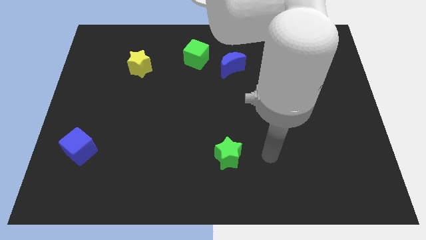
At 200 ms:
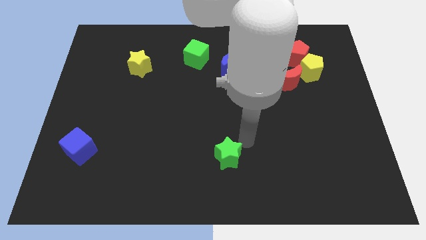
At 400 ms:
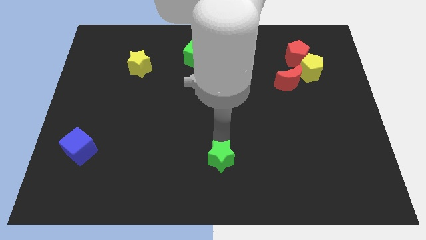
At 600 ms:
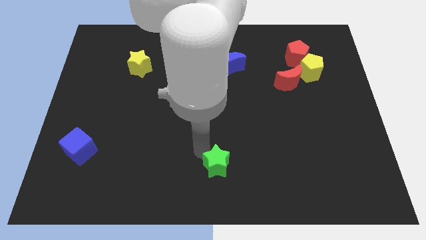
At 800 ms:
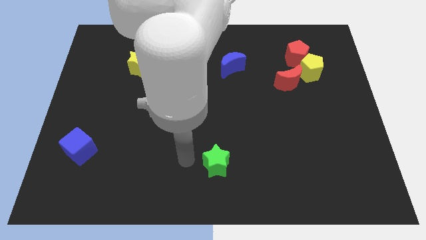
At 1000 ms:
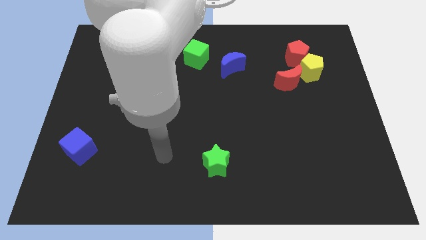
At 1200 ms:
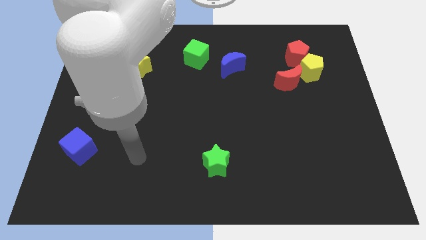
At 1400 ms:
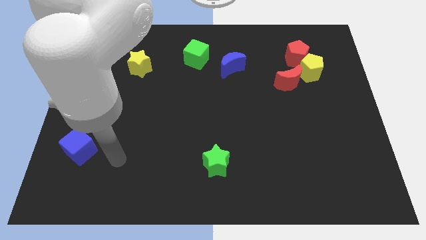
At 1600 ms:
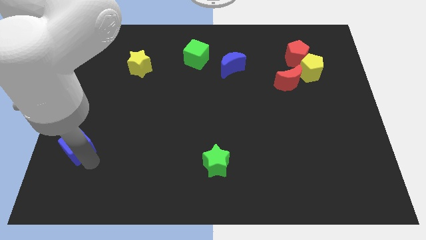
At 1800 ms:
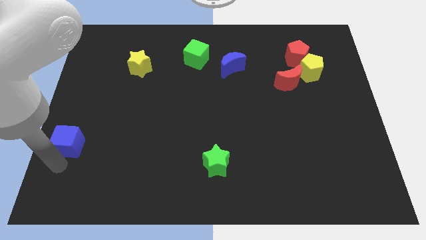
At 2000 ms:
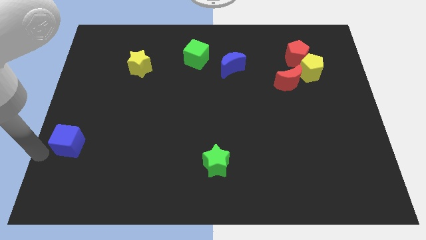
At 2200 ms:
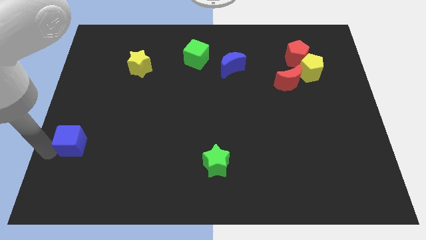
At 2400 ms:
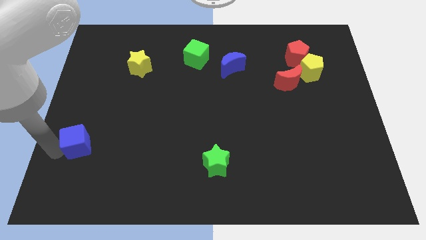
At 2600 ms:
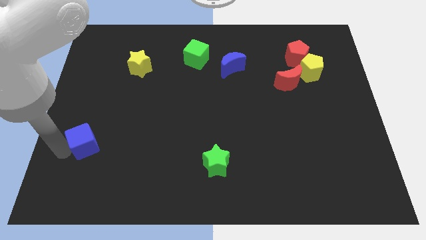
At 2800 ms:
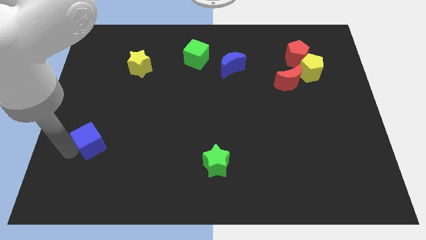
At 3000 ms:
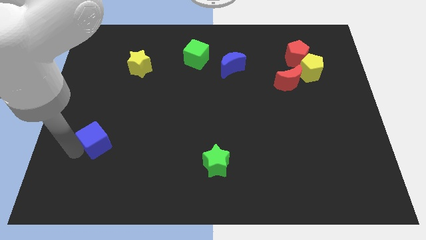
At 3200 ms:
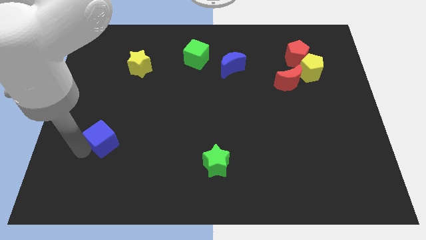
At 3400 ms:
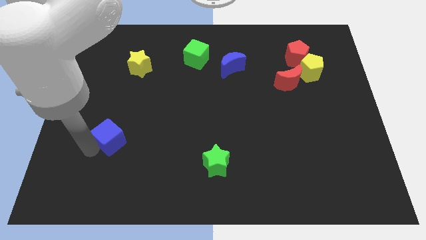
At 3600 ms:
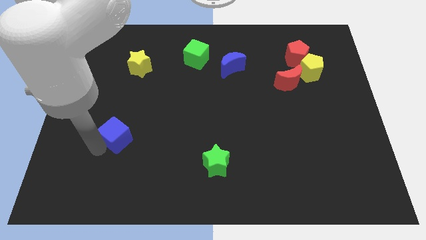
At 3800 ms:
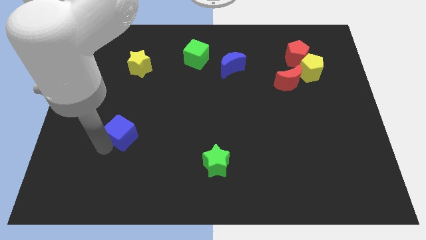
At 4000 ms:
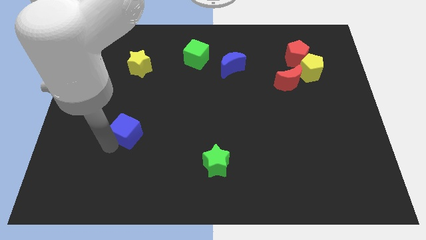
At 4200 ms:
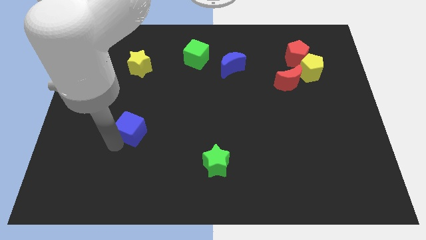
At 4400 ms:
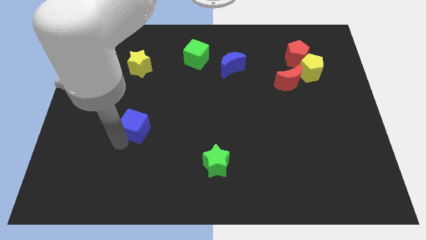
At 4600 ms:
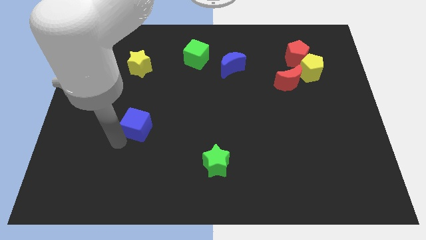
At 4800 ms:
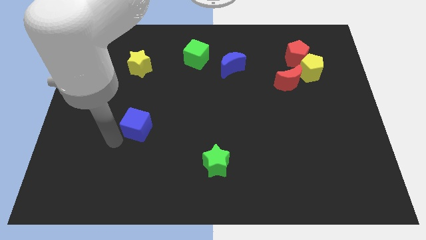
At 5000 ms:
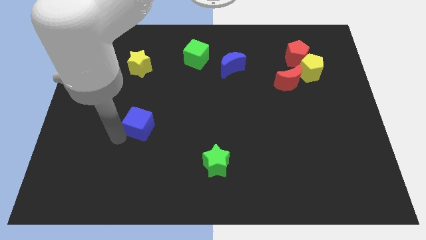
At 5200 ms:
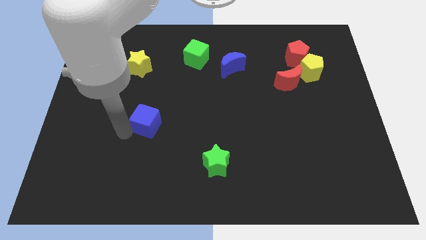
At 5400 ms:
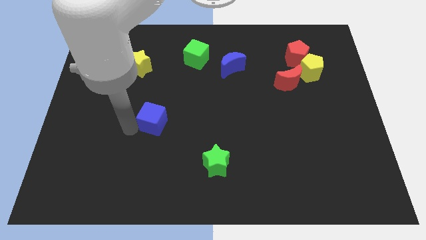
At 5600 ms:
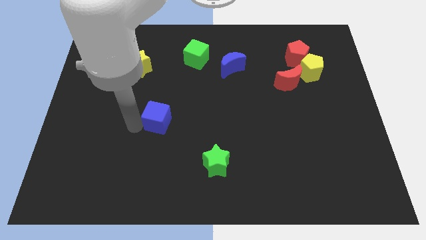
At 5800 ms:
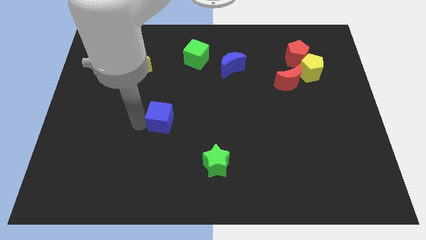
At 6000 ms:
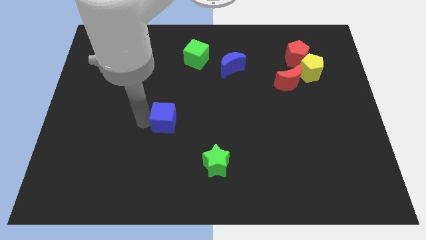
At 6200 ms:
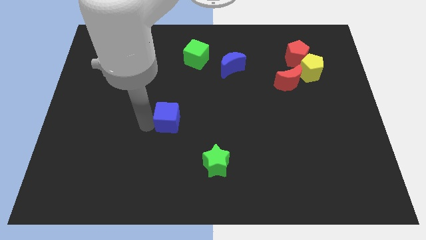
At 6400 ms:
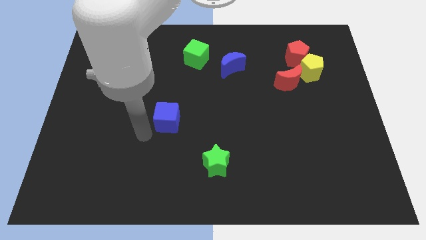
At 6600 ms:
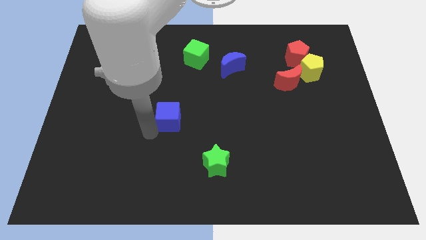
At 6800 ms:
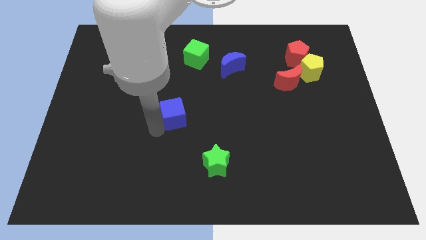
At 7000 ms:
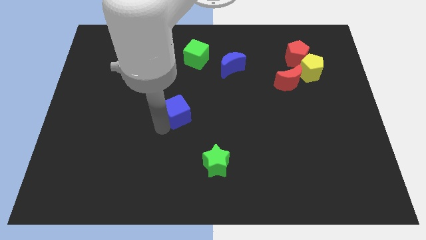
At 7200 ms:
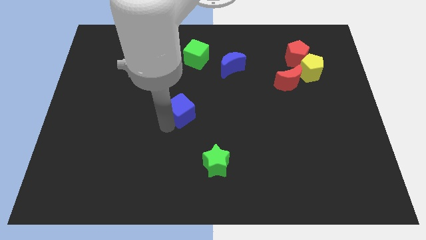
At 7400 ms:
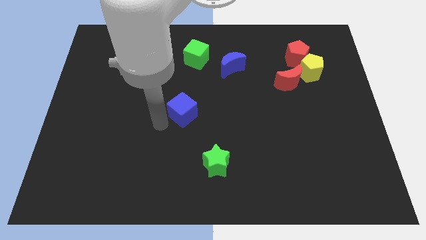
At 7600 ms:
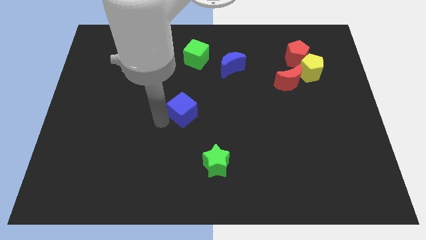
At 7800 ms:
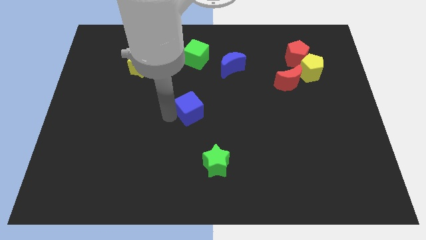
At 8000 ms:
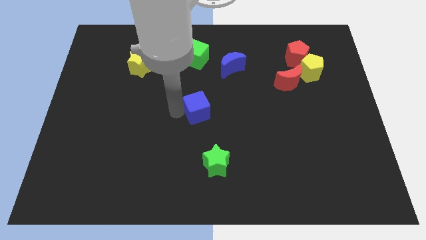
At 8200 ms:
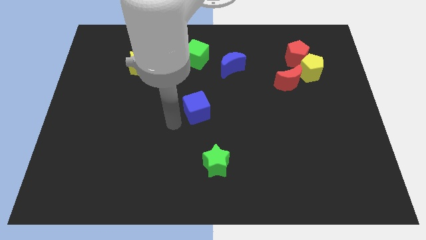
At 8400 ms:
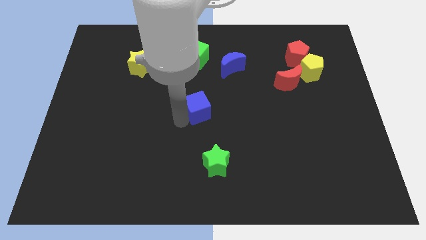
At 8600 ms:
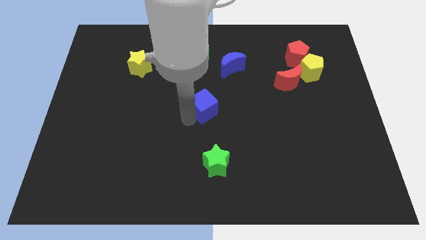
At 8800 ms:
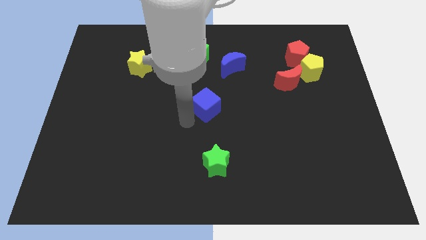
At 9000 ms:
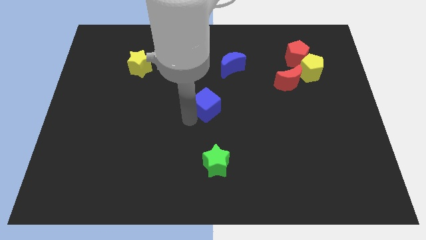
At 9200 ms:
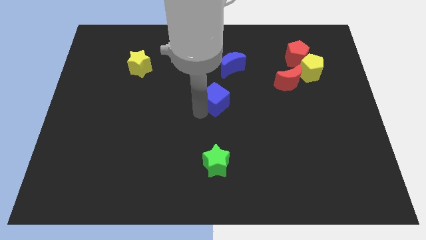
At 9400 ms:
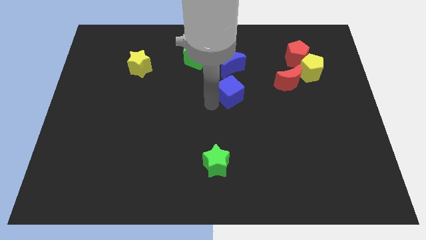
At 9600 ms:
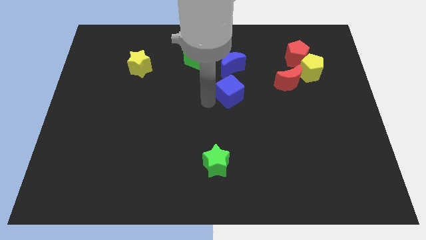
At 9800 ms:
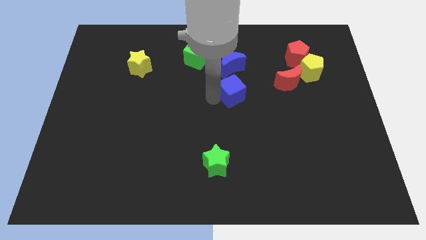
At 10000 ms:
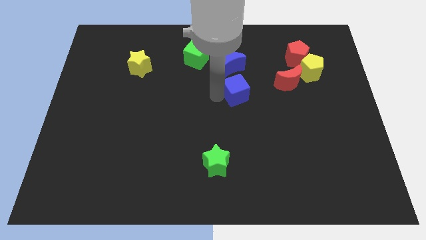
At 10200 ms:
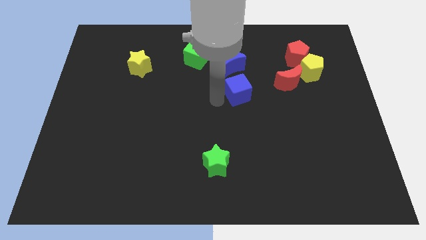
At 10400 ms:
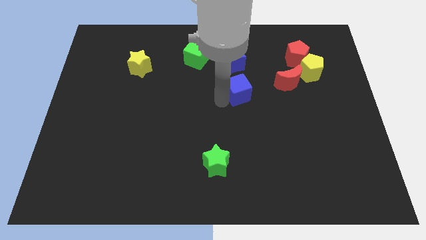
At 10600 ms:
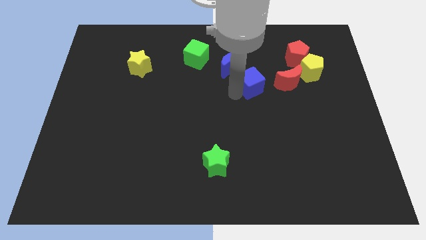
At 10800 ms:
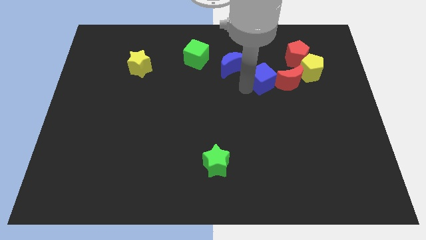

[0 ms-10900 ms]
slide the blue cube to the bottom left of the red pentagon

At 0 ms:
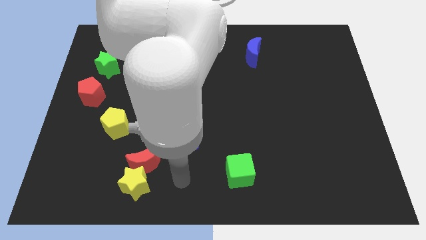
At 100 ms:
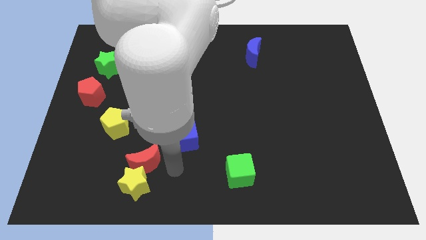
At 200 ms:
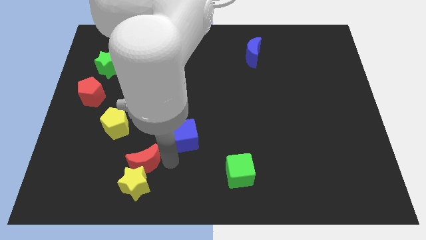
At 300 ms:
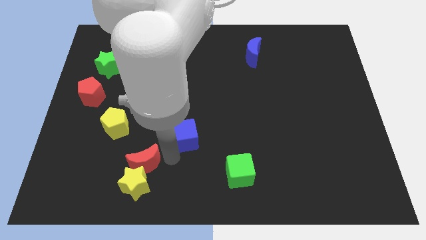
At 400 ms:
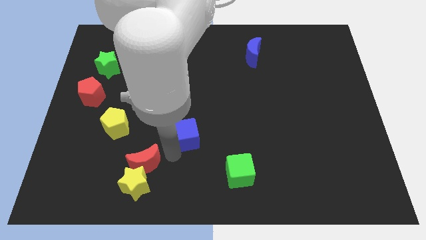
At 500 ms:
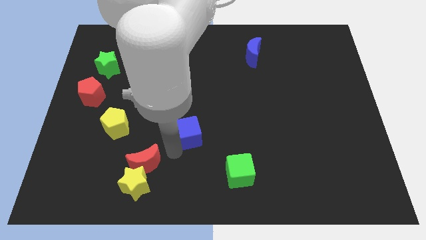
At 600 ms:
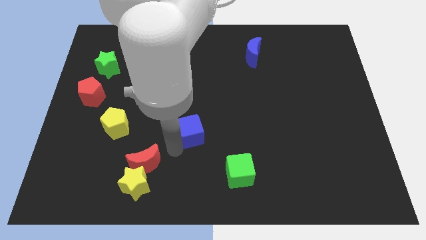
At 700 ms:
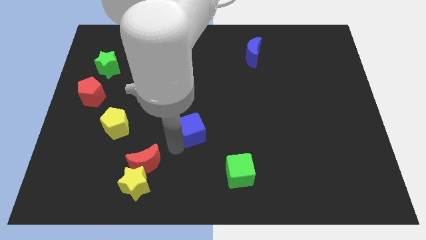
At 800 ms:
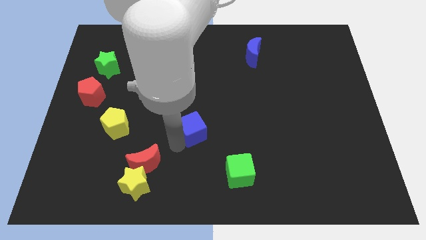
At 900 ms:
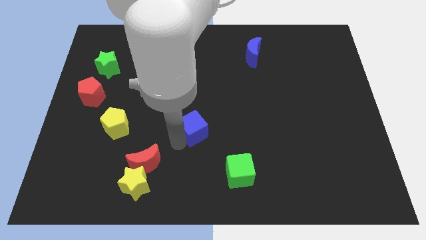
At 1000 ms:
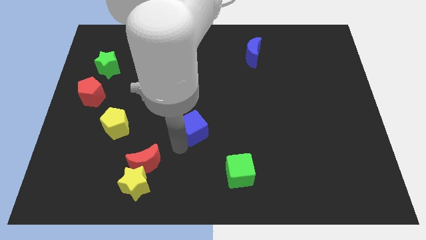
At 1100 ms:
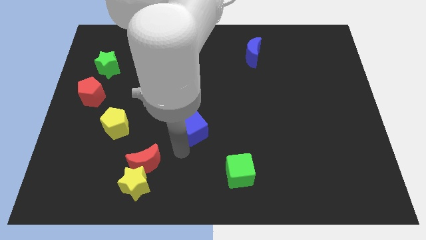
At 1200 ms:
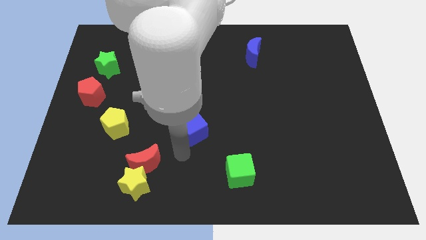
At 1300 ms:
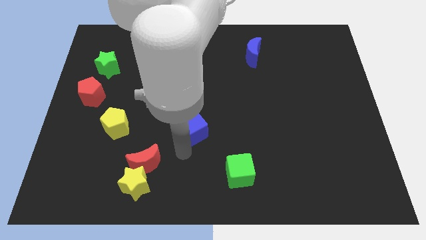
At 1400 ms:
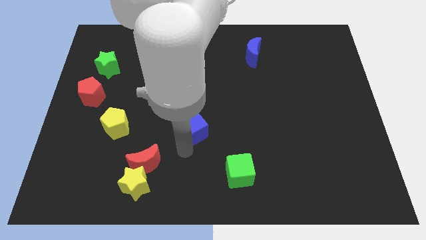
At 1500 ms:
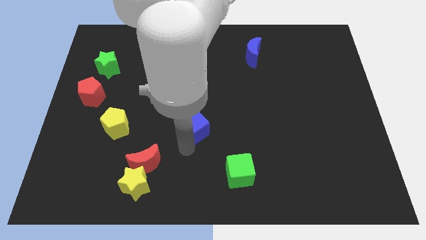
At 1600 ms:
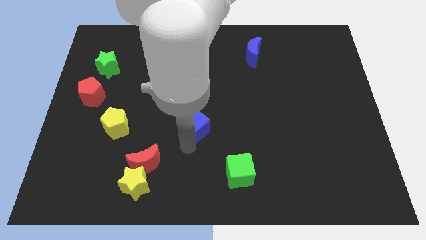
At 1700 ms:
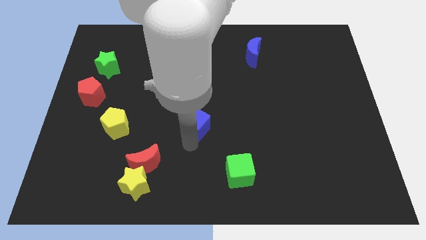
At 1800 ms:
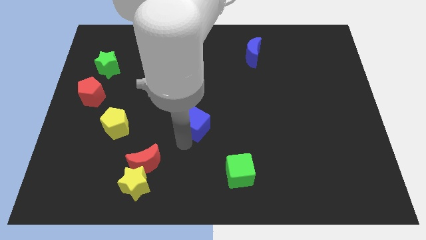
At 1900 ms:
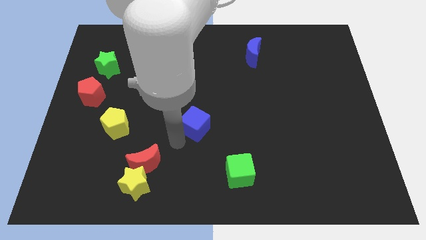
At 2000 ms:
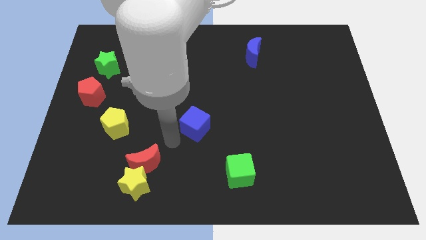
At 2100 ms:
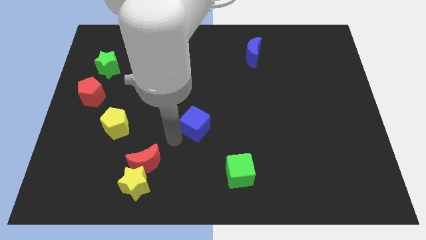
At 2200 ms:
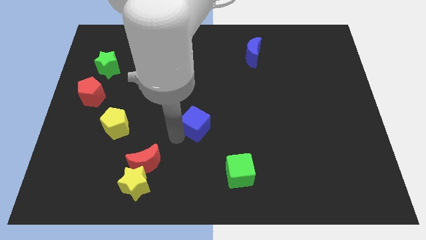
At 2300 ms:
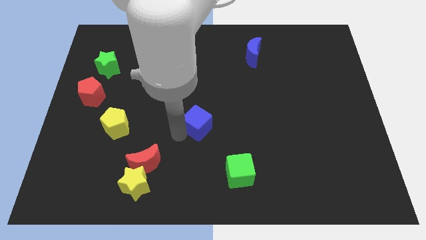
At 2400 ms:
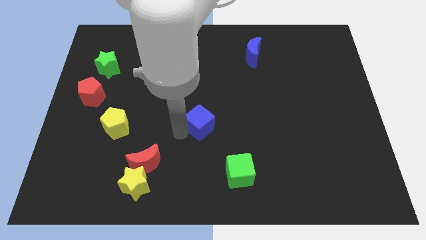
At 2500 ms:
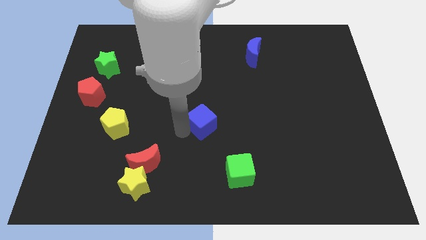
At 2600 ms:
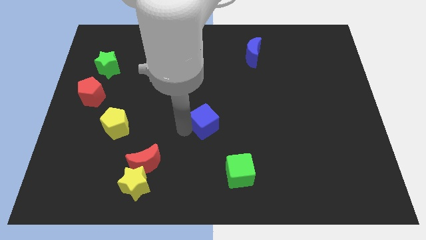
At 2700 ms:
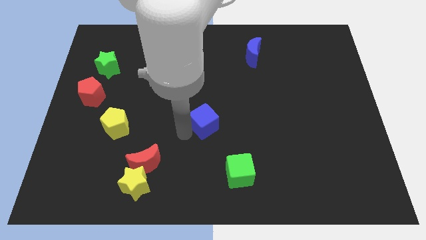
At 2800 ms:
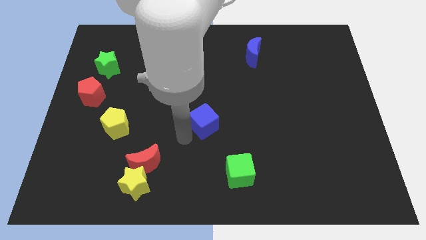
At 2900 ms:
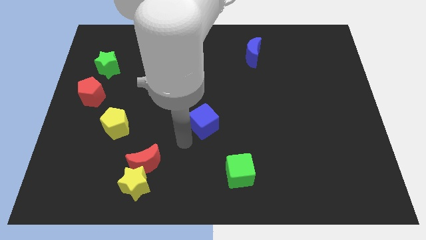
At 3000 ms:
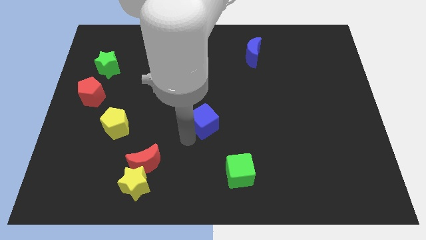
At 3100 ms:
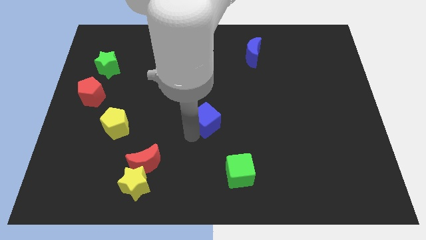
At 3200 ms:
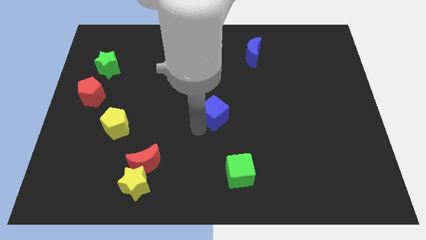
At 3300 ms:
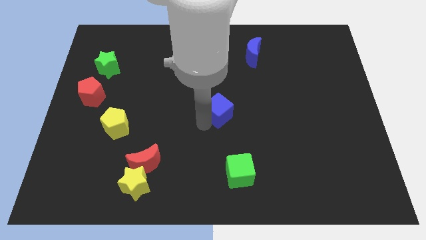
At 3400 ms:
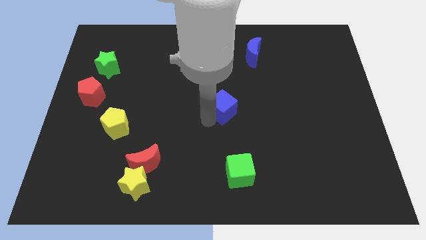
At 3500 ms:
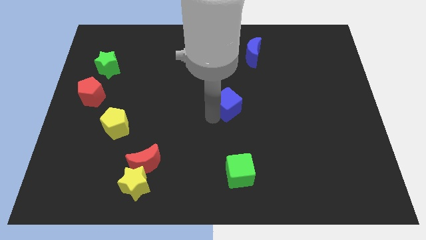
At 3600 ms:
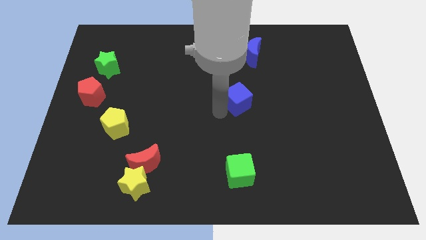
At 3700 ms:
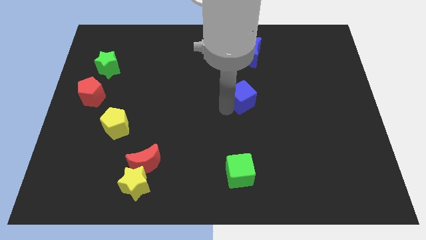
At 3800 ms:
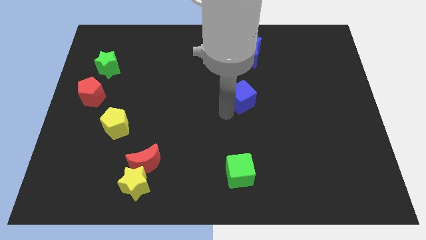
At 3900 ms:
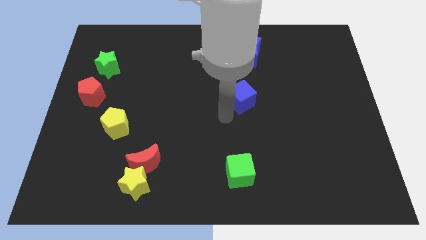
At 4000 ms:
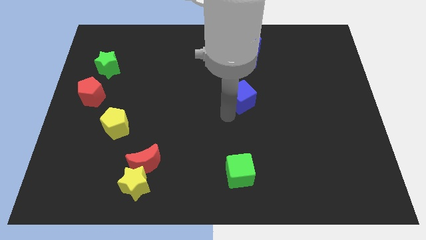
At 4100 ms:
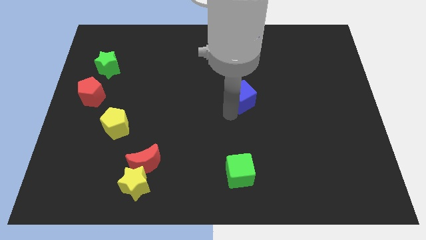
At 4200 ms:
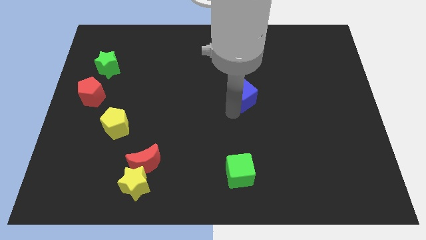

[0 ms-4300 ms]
put the blue cube below the blue moon
